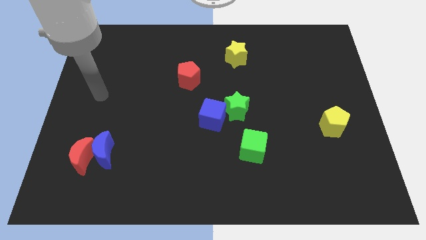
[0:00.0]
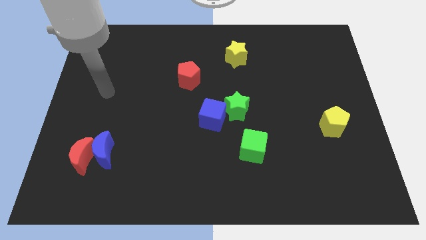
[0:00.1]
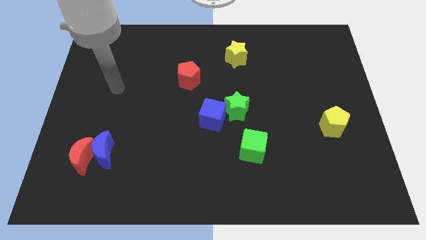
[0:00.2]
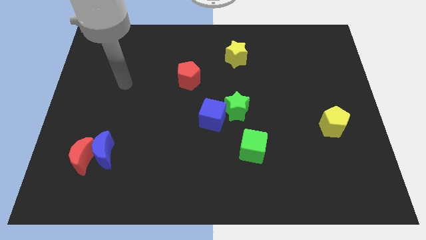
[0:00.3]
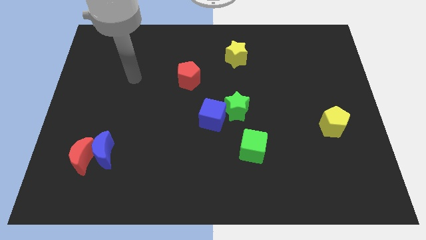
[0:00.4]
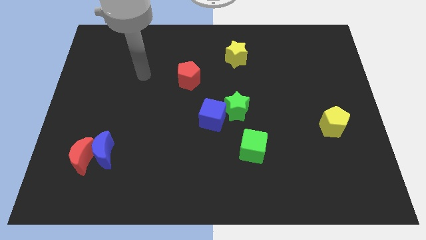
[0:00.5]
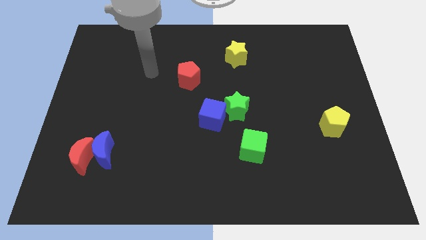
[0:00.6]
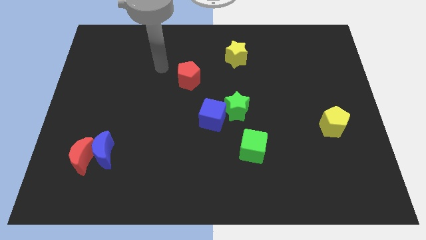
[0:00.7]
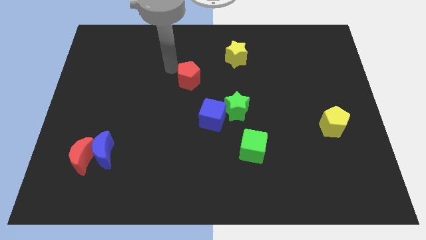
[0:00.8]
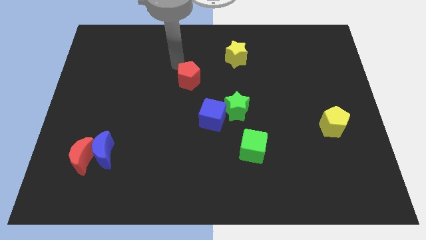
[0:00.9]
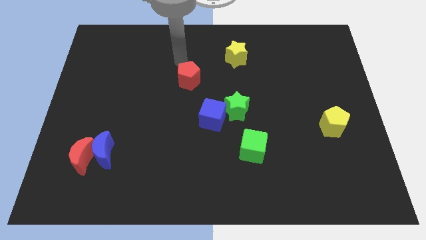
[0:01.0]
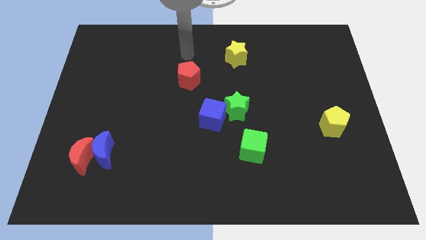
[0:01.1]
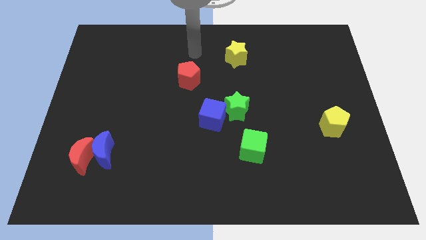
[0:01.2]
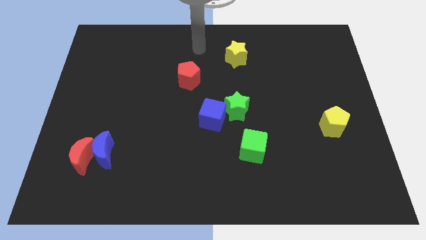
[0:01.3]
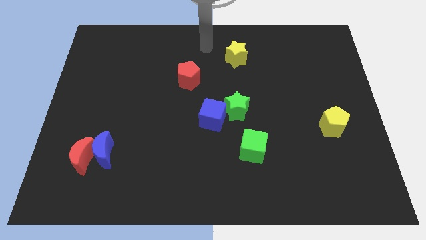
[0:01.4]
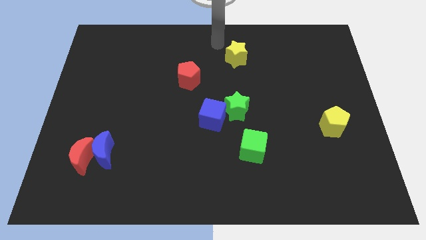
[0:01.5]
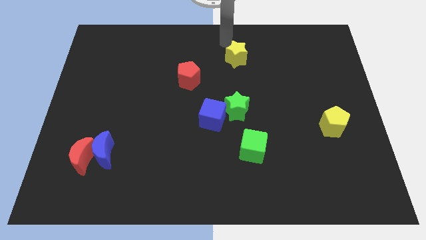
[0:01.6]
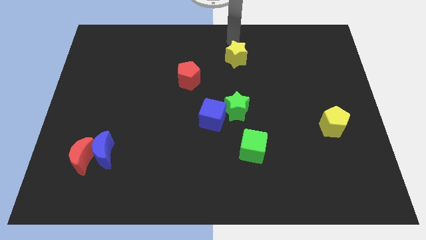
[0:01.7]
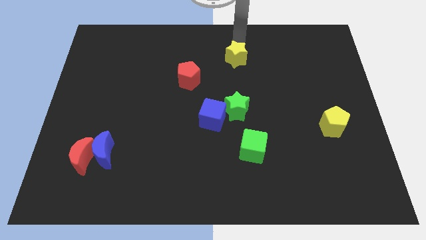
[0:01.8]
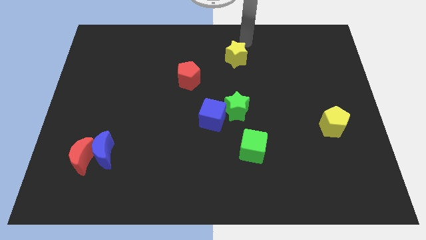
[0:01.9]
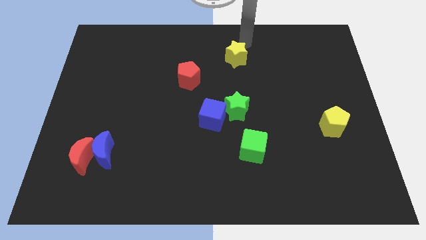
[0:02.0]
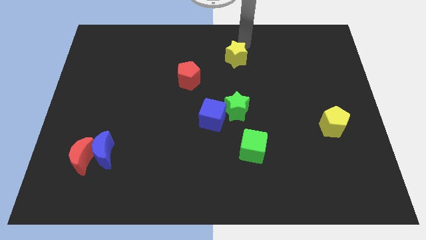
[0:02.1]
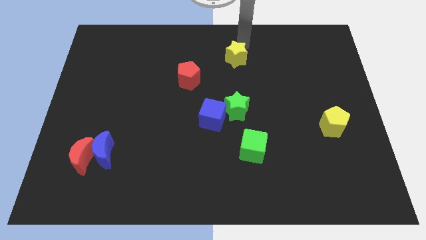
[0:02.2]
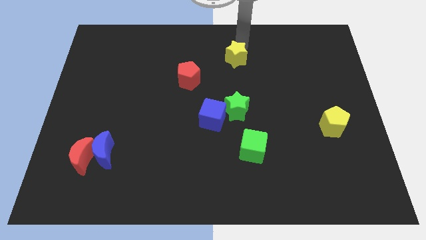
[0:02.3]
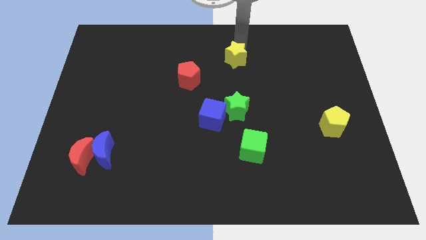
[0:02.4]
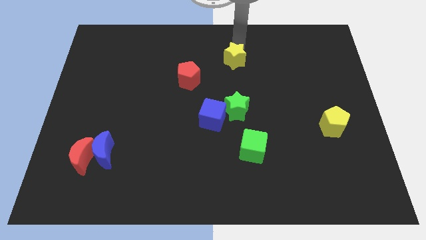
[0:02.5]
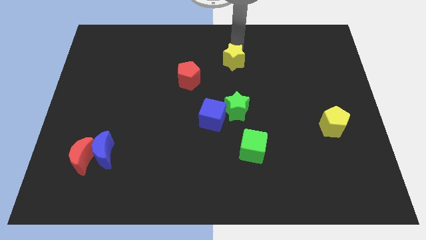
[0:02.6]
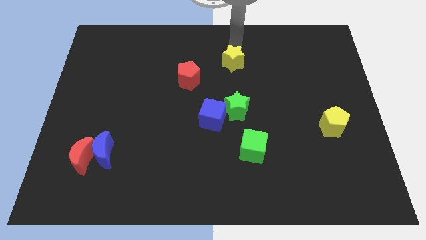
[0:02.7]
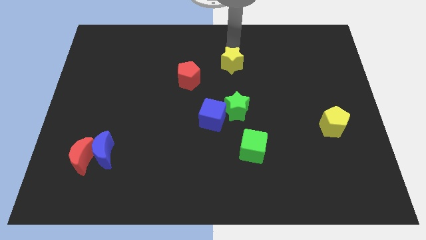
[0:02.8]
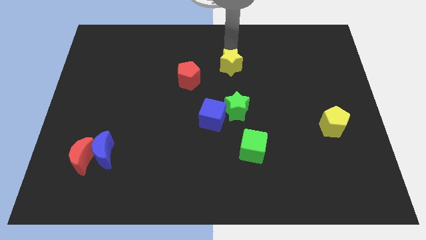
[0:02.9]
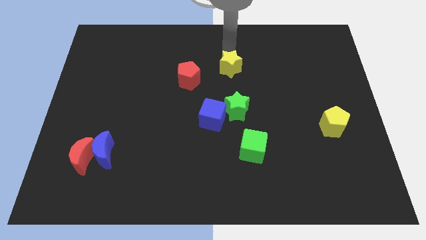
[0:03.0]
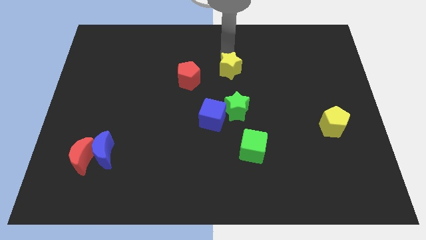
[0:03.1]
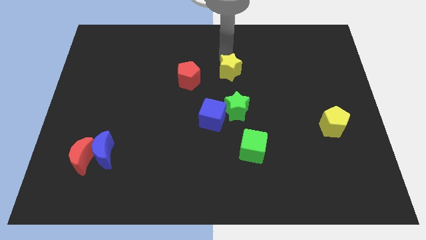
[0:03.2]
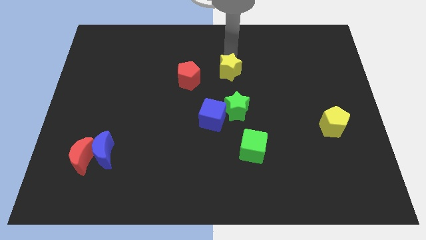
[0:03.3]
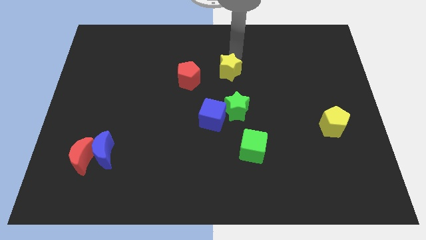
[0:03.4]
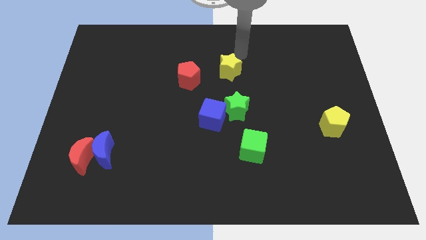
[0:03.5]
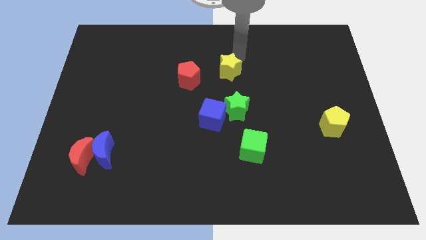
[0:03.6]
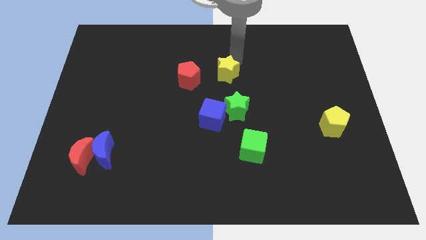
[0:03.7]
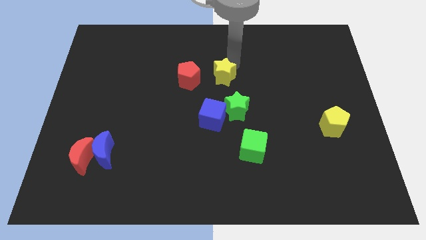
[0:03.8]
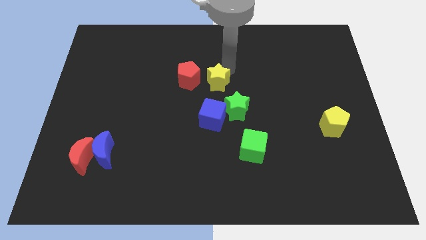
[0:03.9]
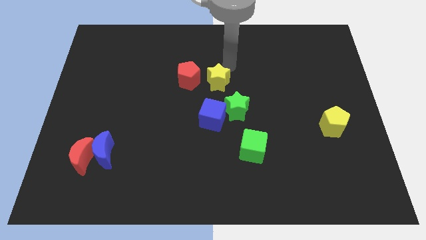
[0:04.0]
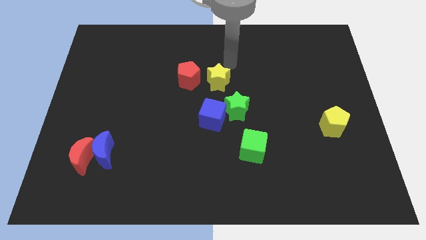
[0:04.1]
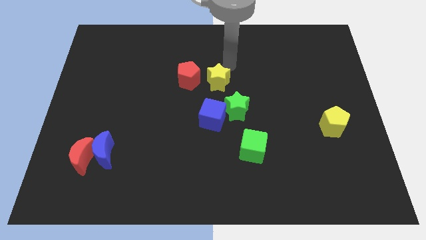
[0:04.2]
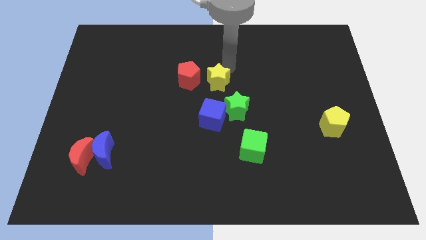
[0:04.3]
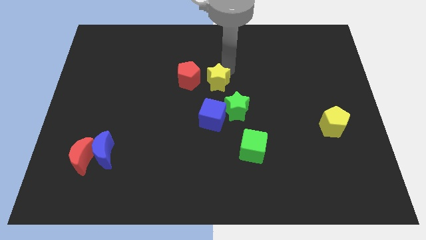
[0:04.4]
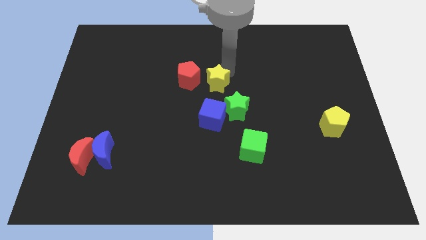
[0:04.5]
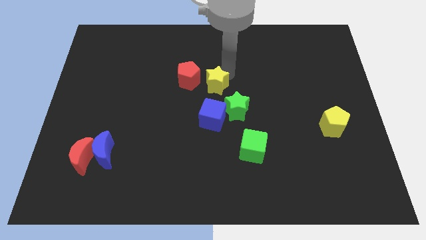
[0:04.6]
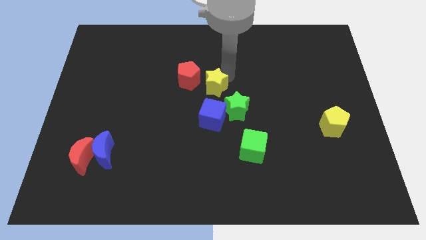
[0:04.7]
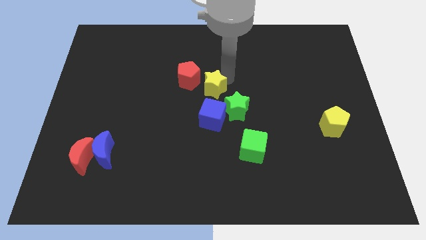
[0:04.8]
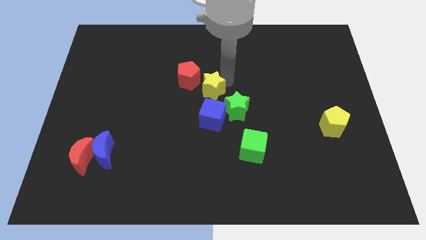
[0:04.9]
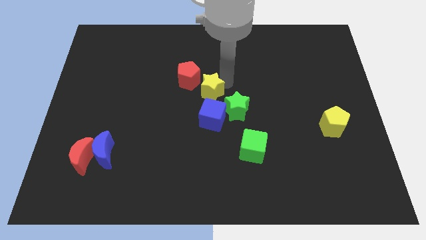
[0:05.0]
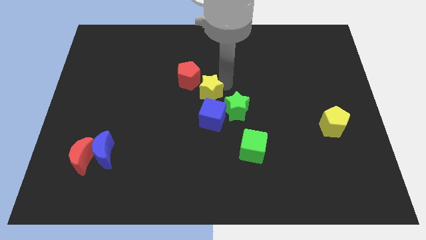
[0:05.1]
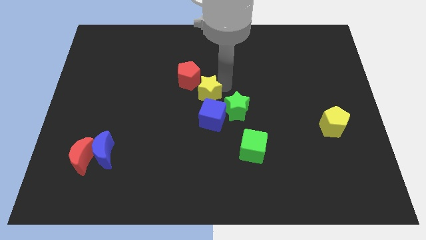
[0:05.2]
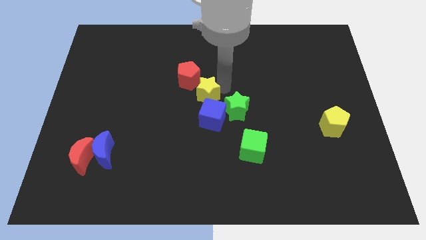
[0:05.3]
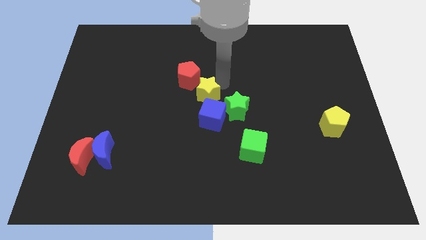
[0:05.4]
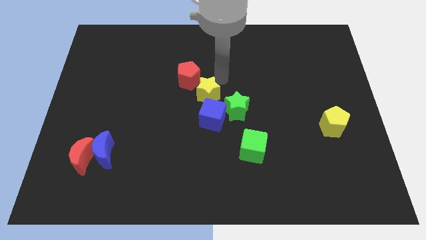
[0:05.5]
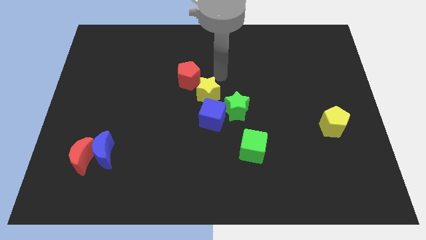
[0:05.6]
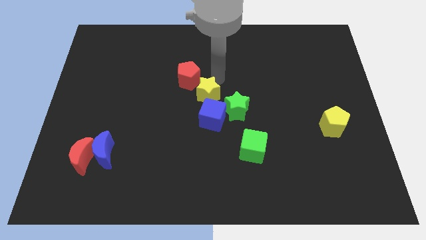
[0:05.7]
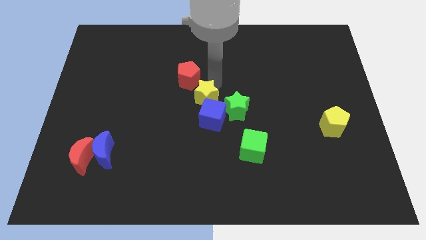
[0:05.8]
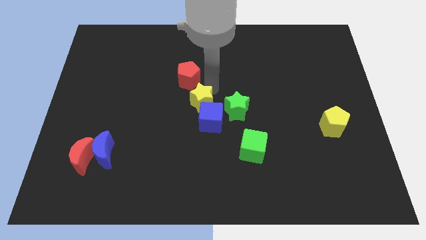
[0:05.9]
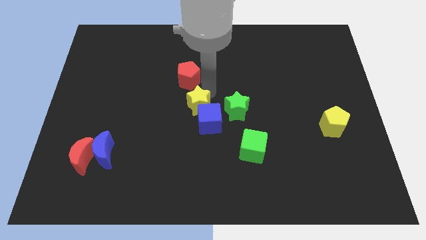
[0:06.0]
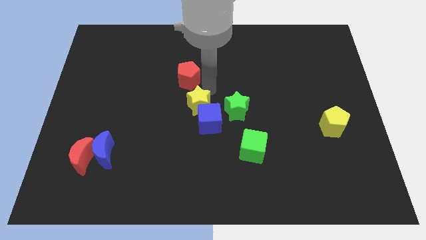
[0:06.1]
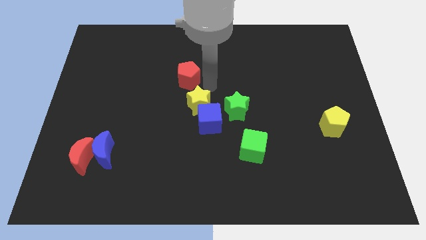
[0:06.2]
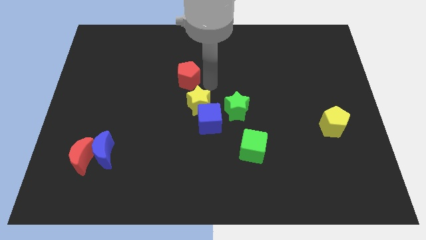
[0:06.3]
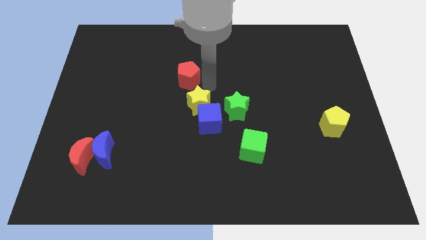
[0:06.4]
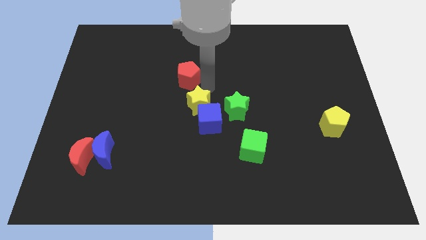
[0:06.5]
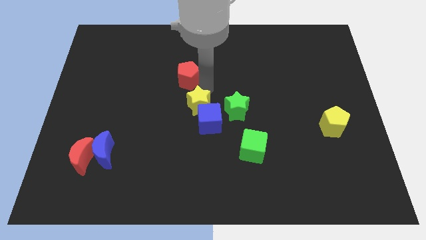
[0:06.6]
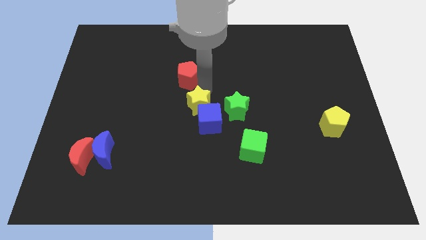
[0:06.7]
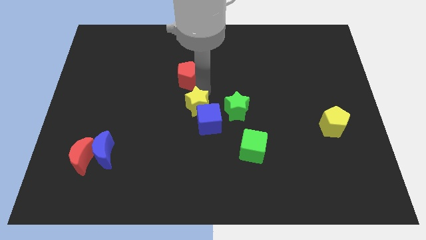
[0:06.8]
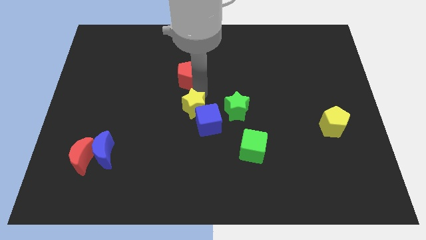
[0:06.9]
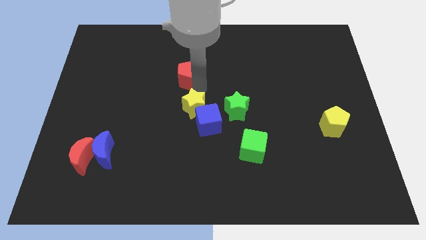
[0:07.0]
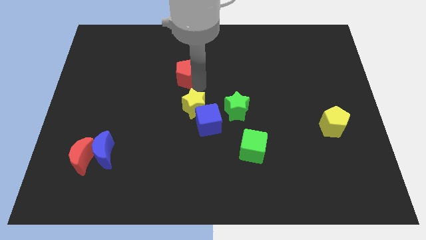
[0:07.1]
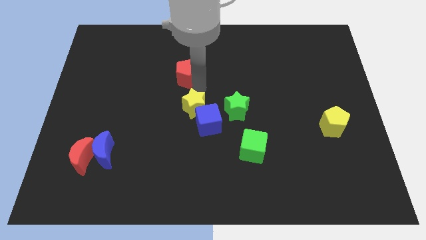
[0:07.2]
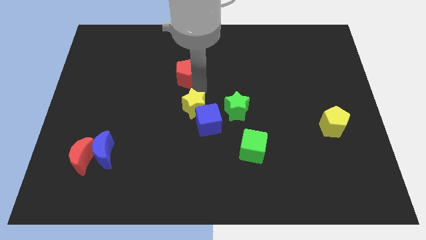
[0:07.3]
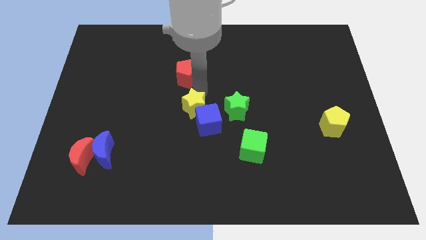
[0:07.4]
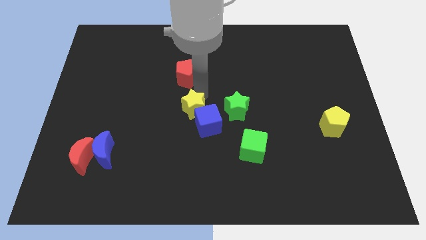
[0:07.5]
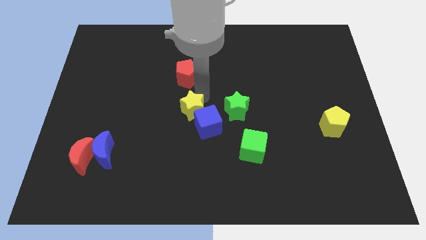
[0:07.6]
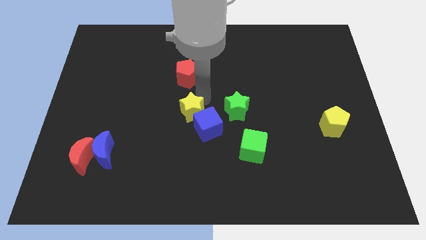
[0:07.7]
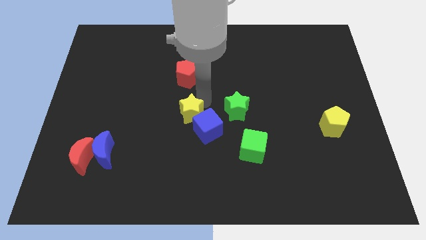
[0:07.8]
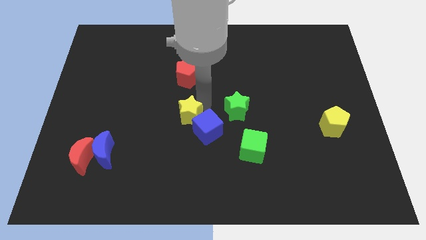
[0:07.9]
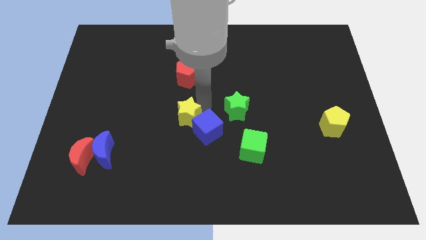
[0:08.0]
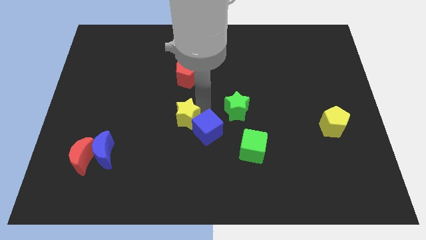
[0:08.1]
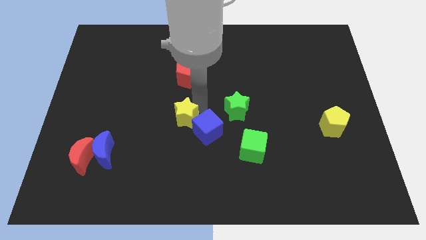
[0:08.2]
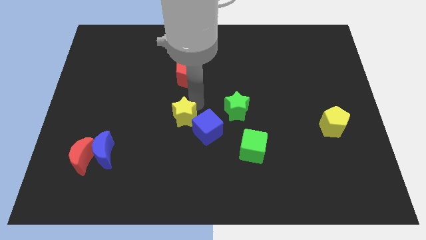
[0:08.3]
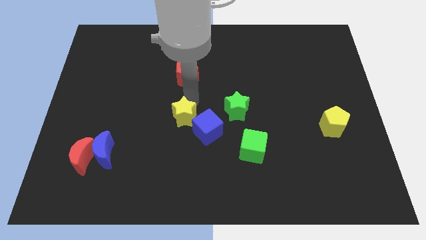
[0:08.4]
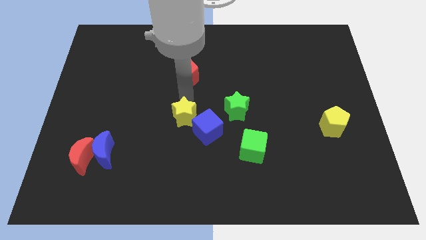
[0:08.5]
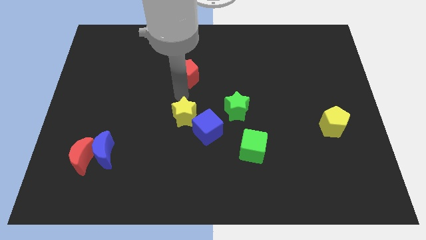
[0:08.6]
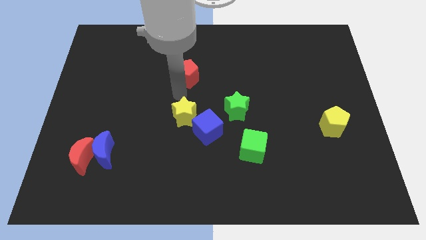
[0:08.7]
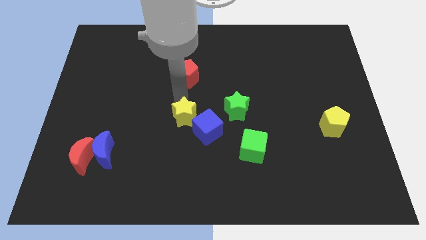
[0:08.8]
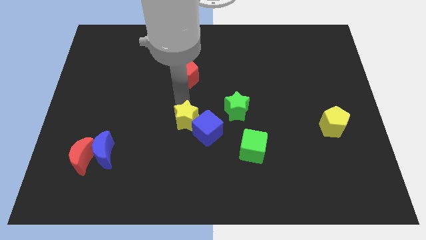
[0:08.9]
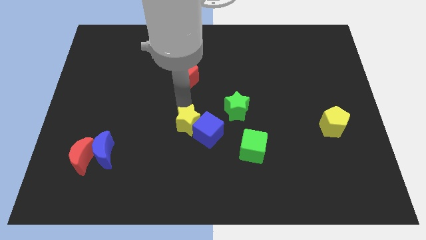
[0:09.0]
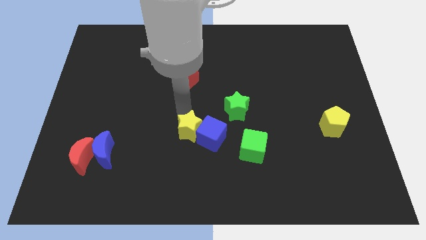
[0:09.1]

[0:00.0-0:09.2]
slide the yellow star diagonally down and to the left of the green star
